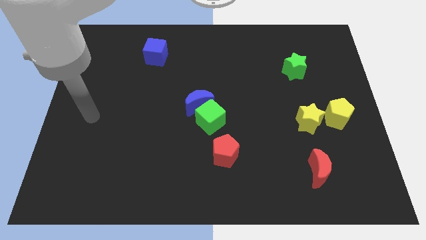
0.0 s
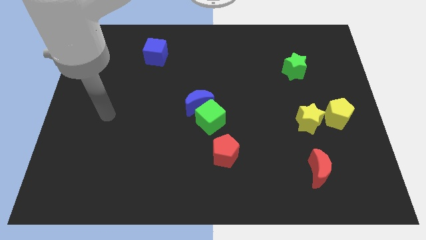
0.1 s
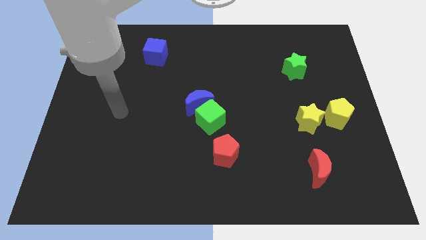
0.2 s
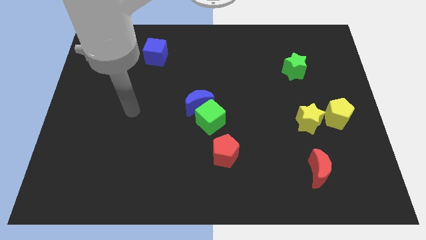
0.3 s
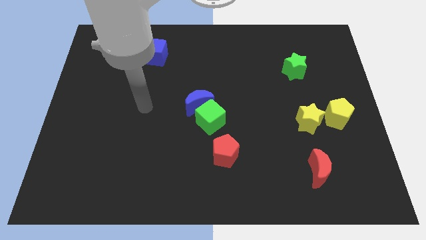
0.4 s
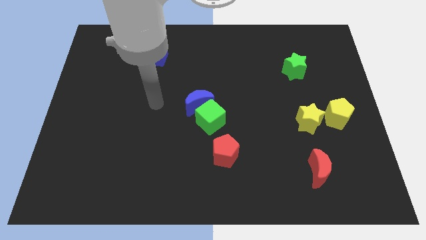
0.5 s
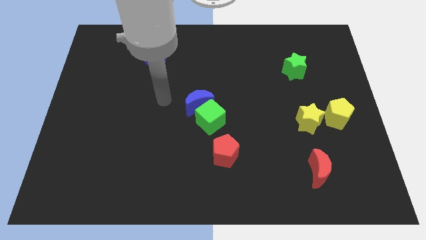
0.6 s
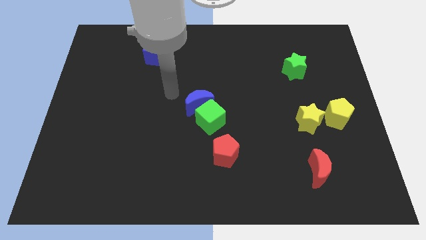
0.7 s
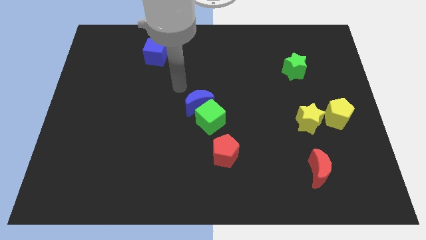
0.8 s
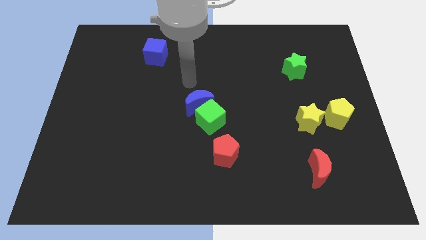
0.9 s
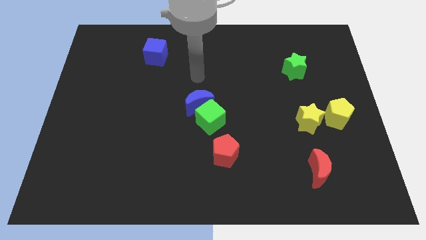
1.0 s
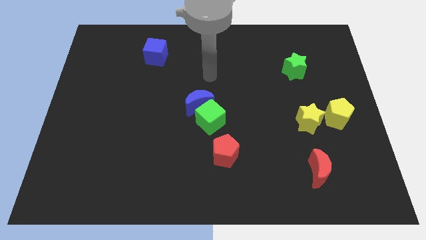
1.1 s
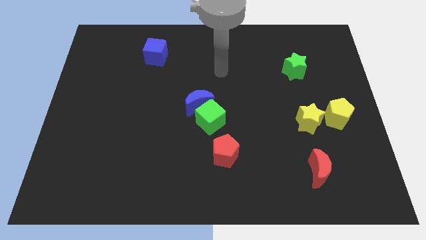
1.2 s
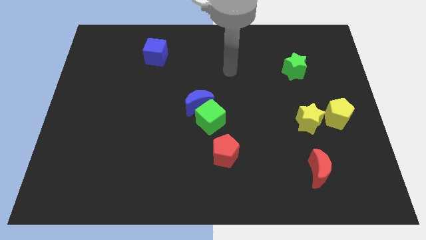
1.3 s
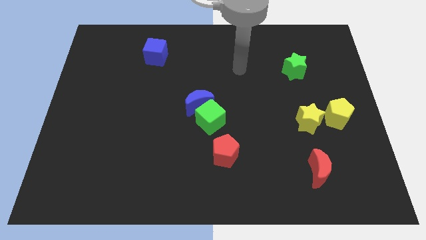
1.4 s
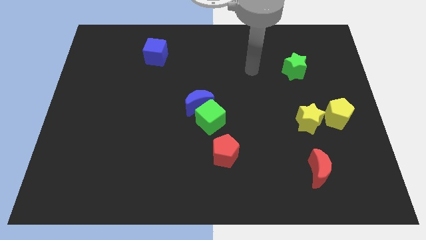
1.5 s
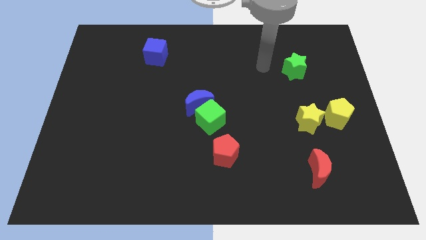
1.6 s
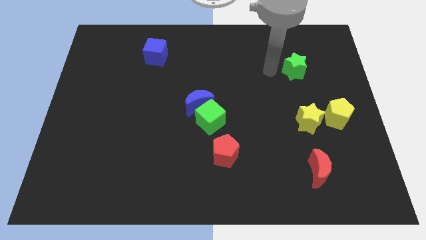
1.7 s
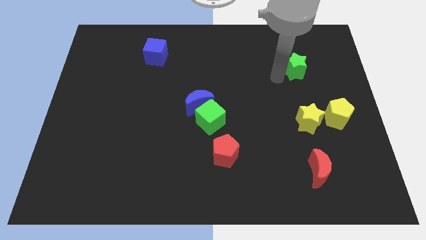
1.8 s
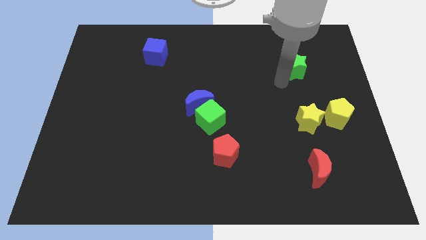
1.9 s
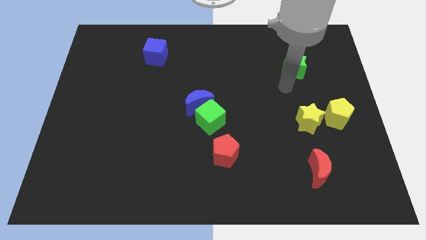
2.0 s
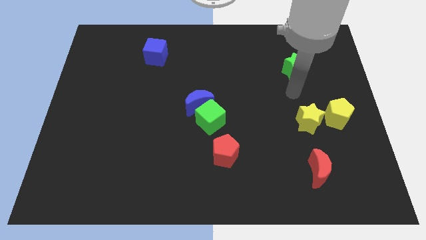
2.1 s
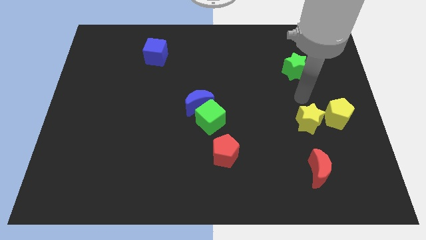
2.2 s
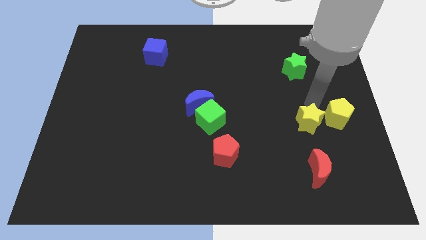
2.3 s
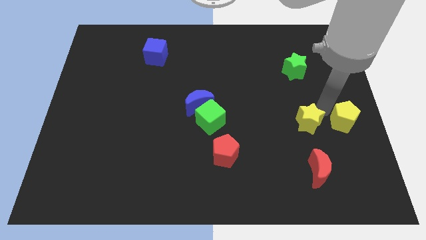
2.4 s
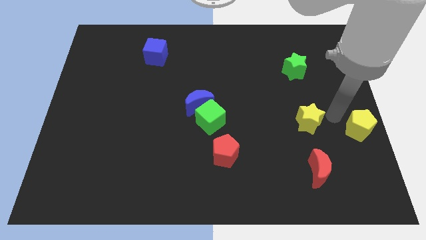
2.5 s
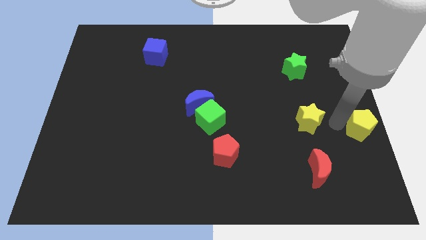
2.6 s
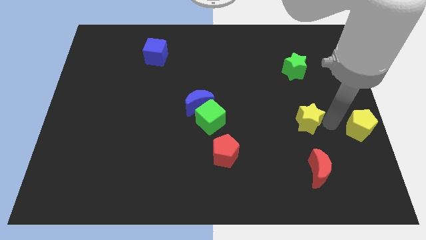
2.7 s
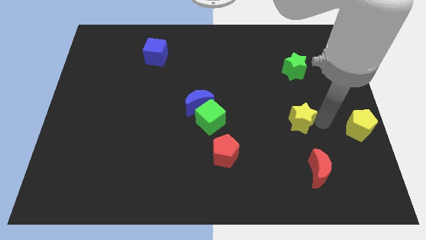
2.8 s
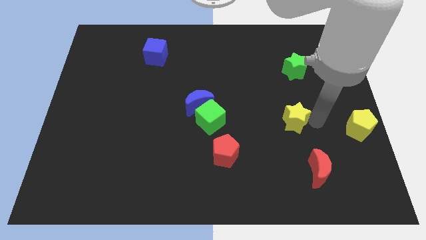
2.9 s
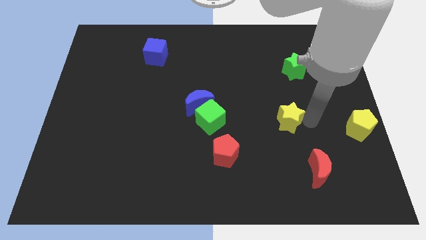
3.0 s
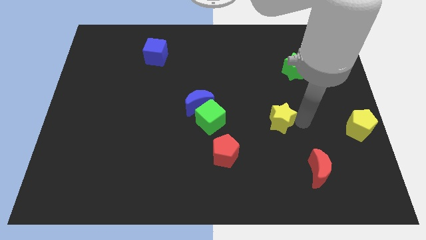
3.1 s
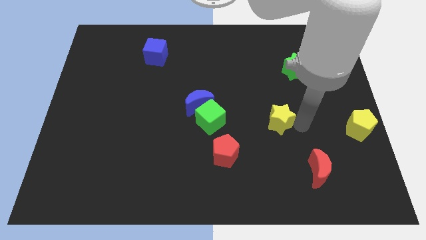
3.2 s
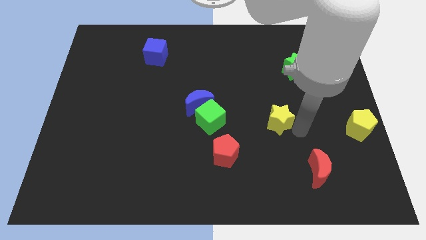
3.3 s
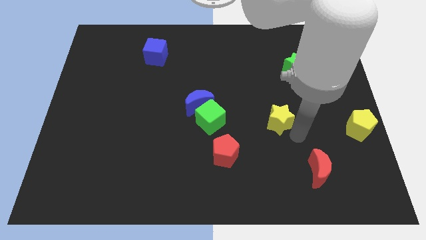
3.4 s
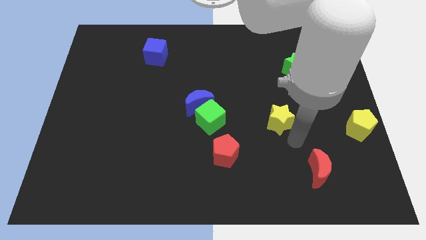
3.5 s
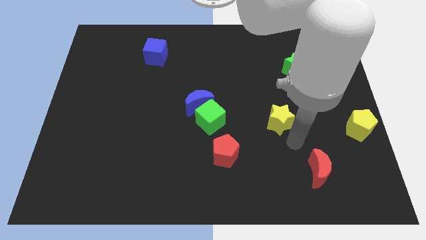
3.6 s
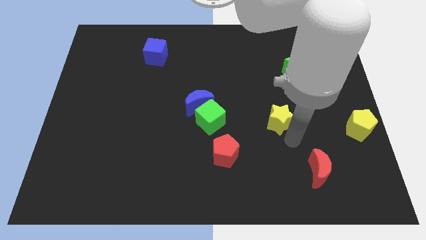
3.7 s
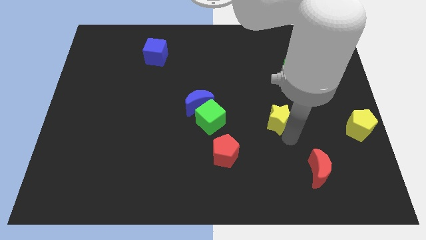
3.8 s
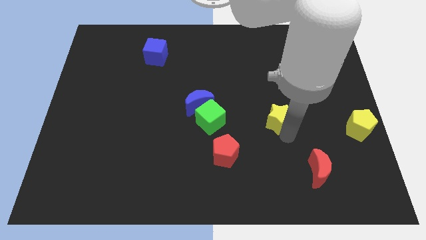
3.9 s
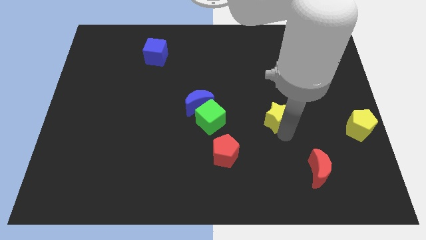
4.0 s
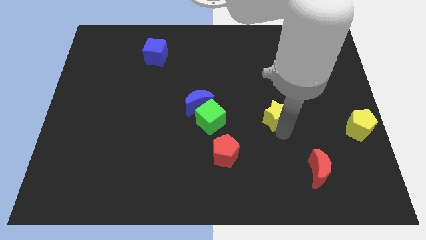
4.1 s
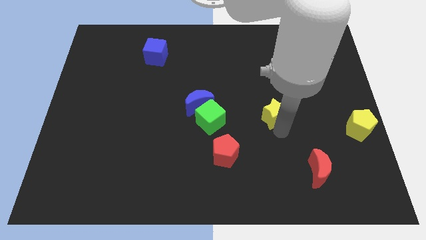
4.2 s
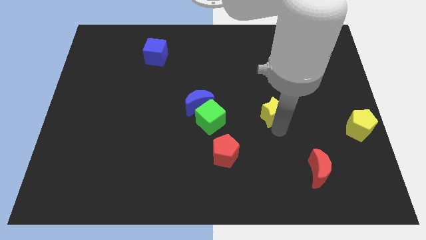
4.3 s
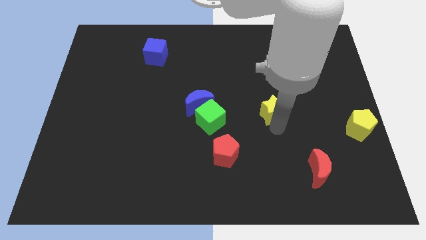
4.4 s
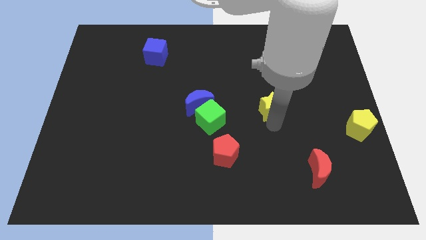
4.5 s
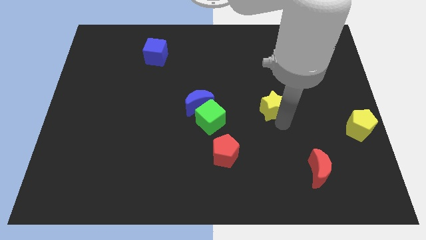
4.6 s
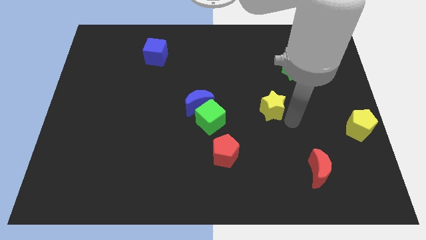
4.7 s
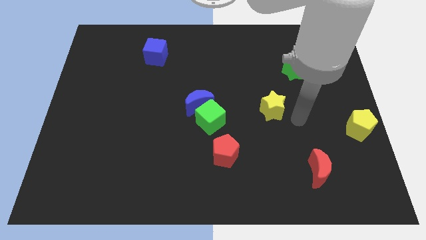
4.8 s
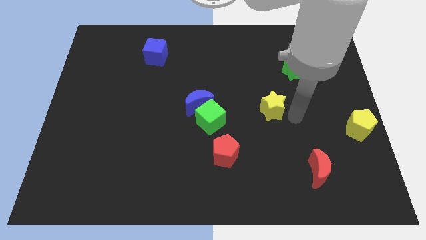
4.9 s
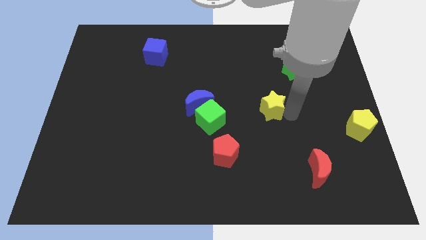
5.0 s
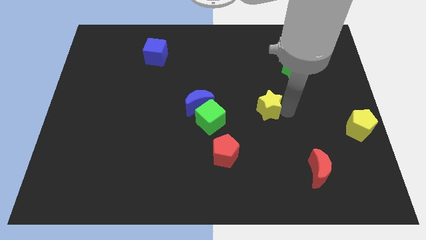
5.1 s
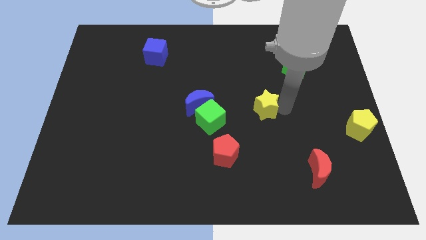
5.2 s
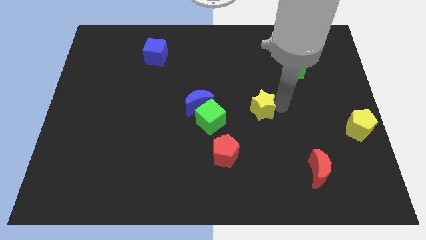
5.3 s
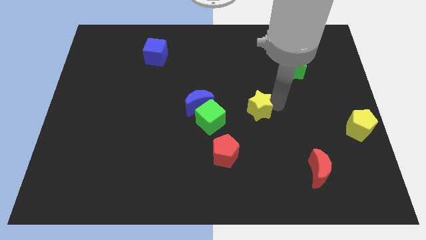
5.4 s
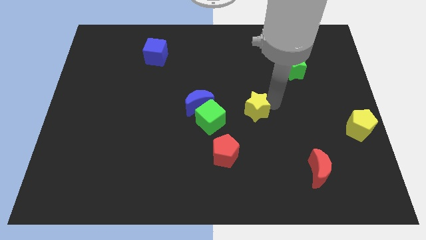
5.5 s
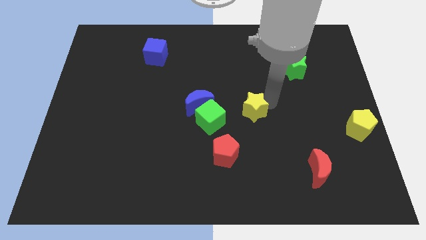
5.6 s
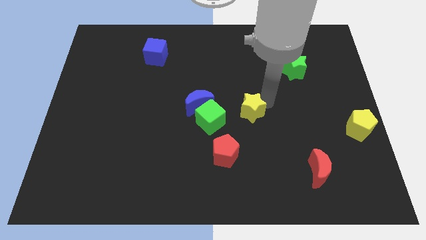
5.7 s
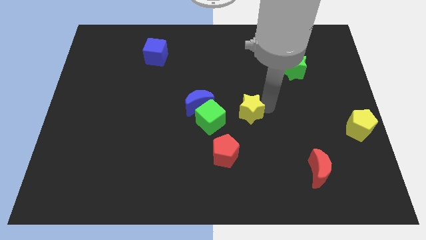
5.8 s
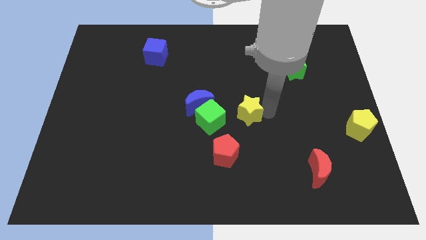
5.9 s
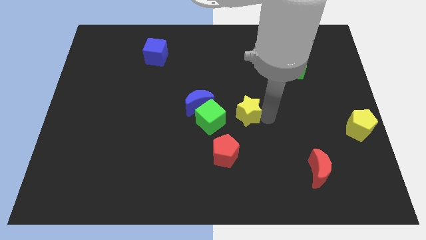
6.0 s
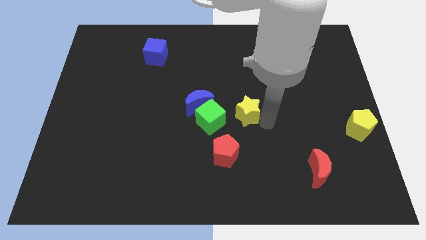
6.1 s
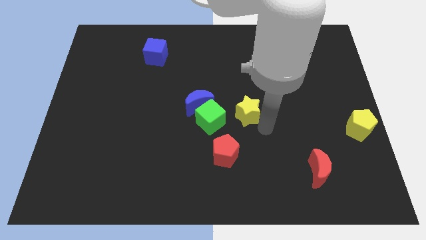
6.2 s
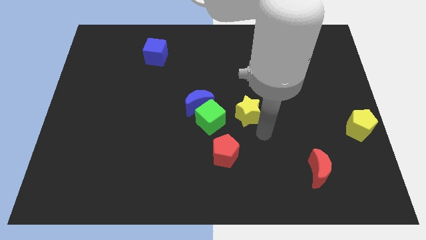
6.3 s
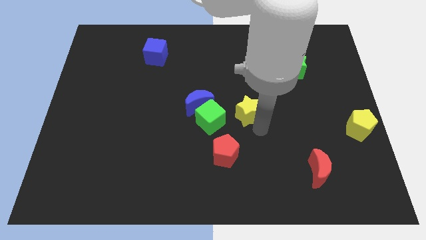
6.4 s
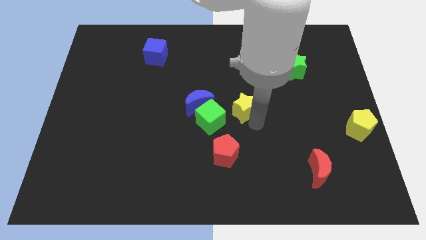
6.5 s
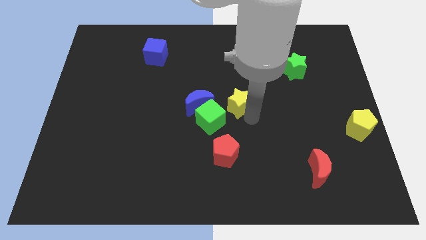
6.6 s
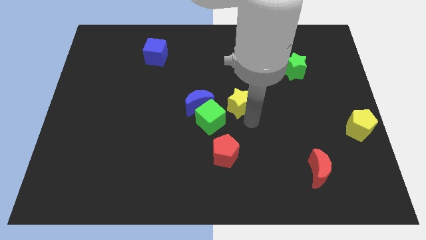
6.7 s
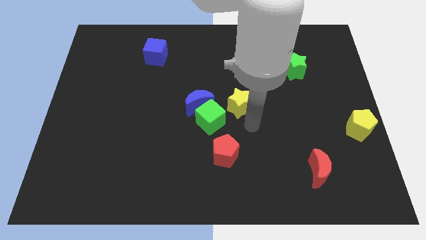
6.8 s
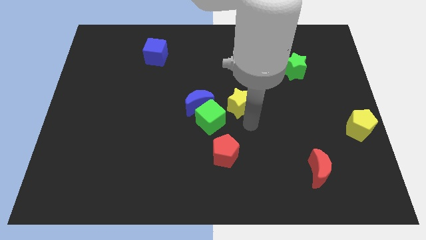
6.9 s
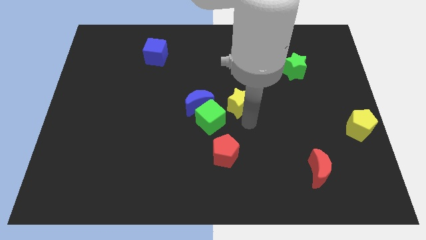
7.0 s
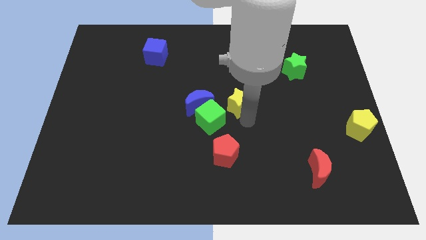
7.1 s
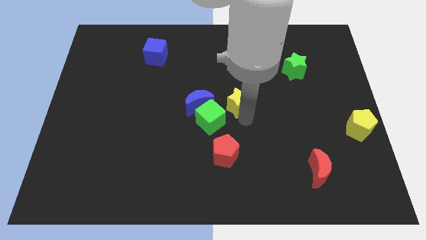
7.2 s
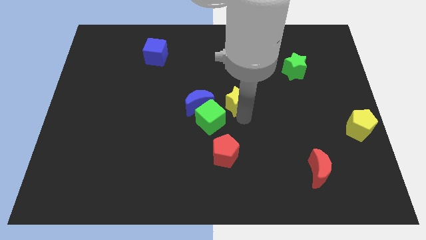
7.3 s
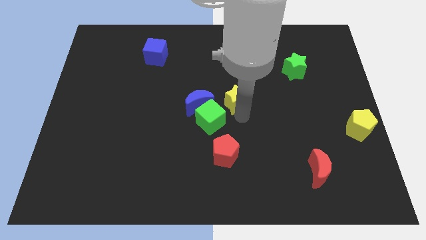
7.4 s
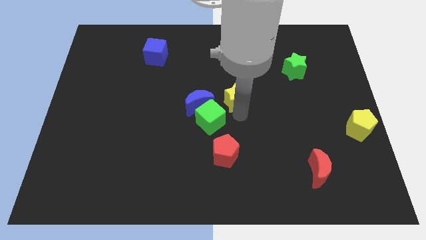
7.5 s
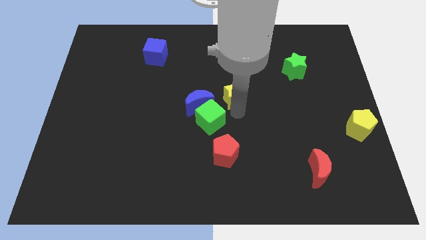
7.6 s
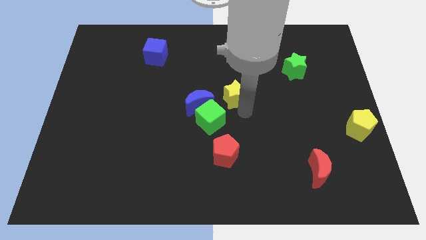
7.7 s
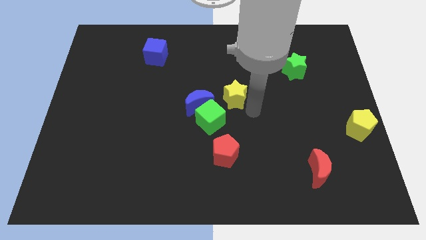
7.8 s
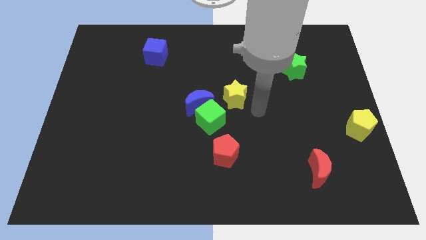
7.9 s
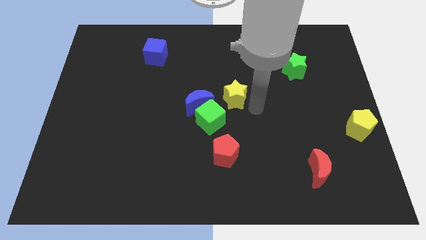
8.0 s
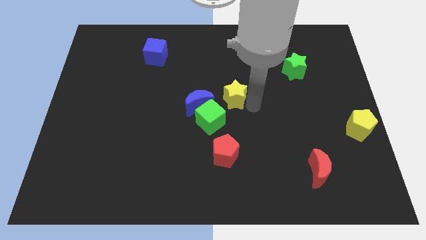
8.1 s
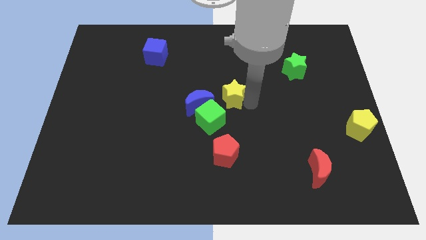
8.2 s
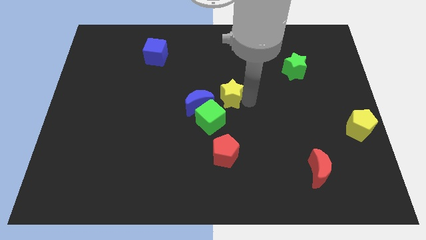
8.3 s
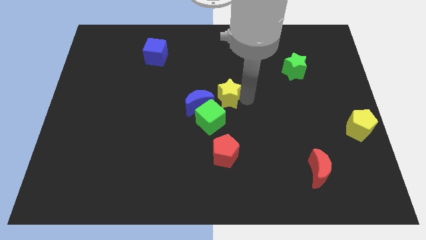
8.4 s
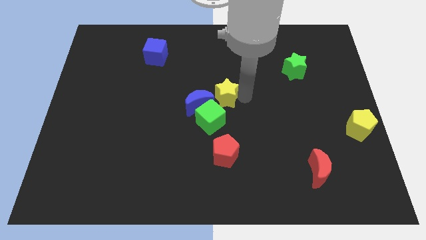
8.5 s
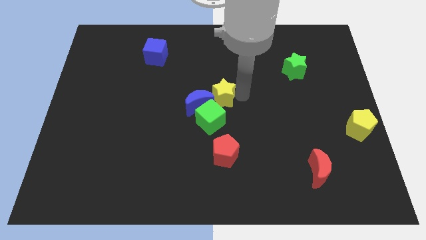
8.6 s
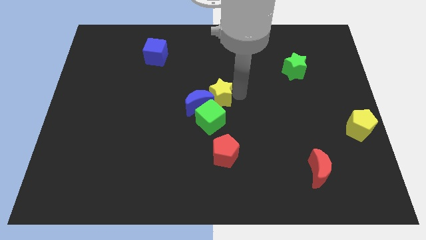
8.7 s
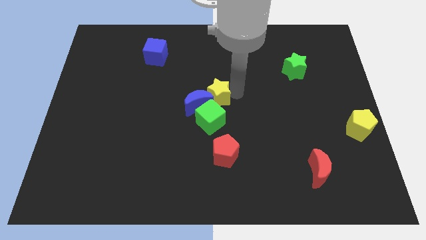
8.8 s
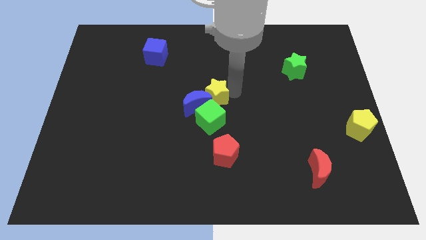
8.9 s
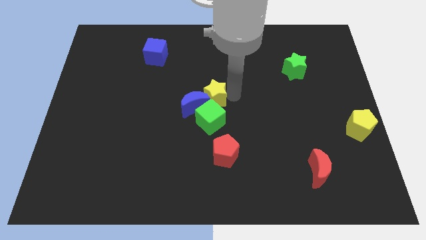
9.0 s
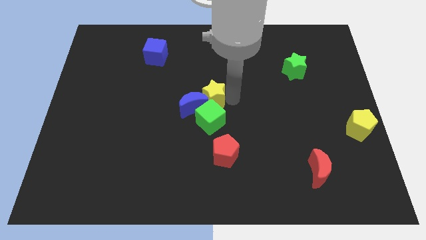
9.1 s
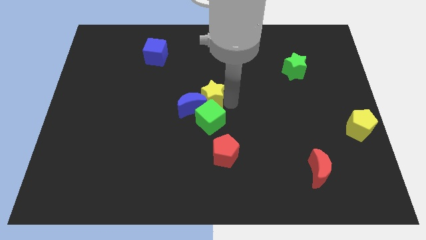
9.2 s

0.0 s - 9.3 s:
push the yellow star to the left
